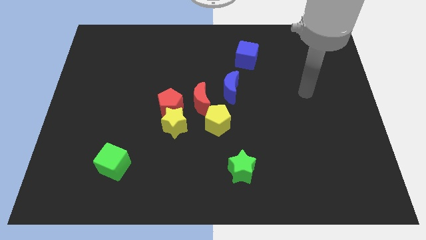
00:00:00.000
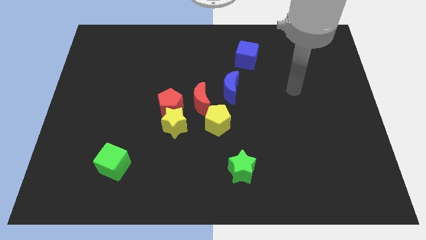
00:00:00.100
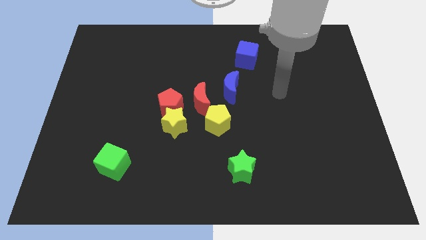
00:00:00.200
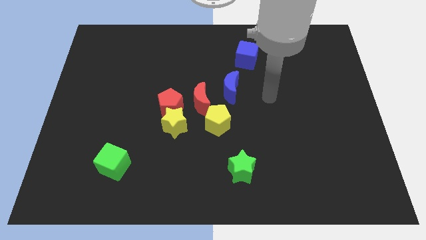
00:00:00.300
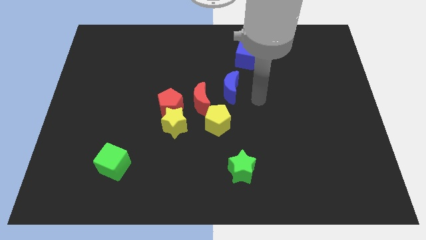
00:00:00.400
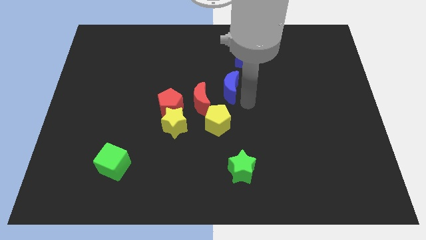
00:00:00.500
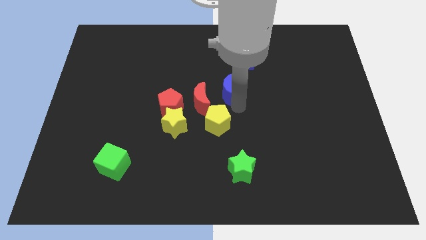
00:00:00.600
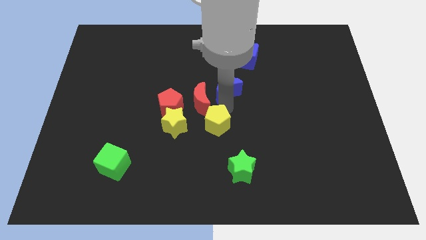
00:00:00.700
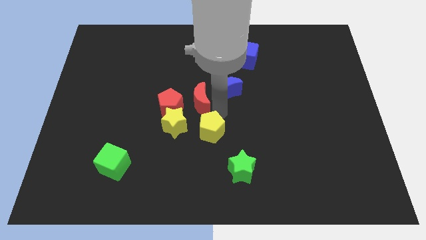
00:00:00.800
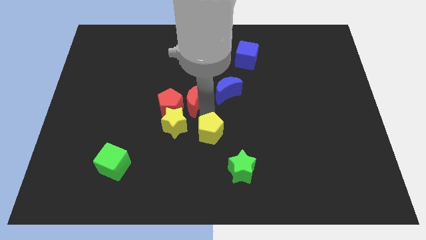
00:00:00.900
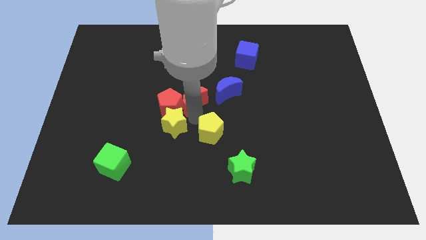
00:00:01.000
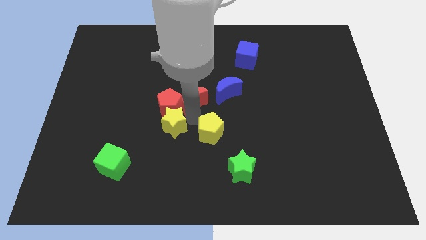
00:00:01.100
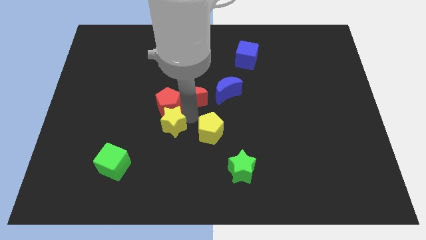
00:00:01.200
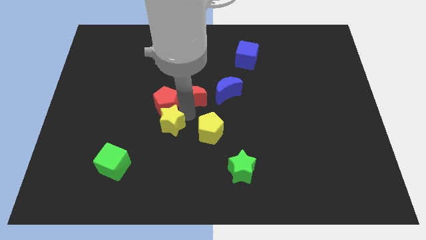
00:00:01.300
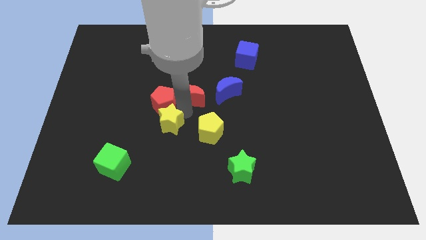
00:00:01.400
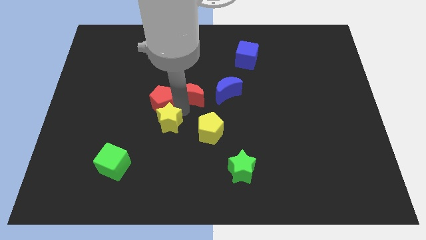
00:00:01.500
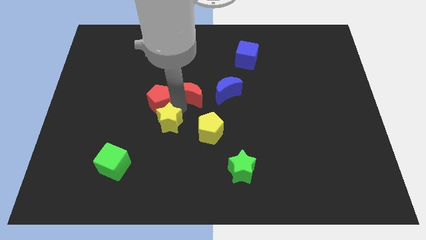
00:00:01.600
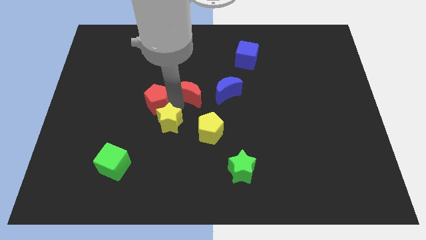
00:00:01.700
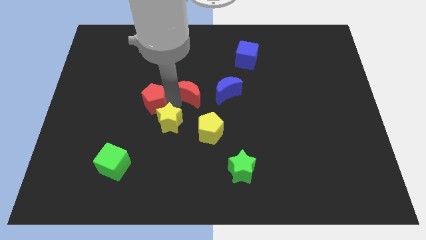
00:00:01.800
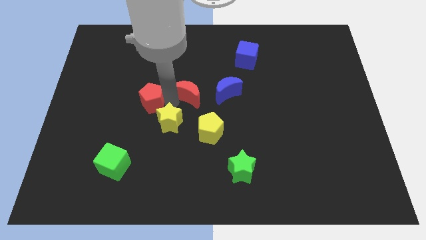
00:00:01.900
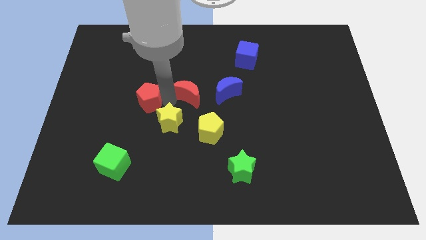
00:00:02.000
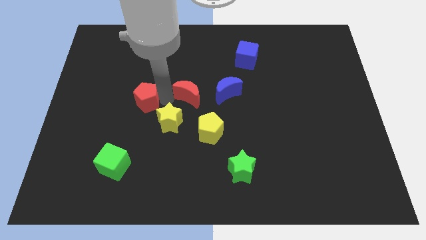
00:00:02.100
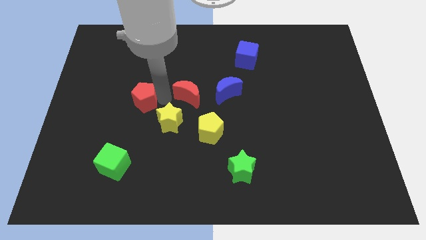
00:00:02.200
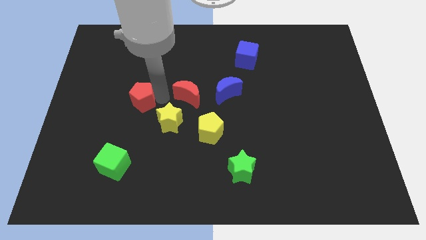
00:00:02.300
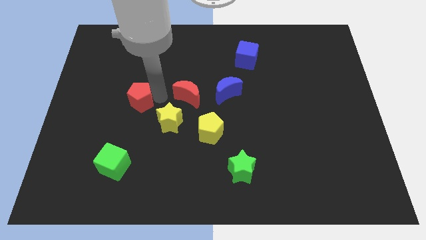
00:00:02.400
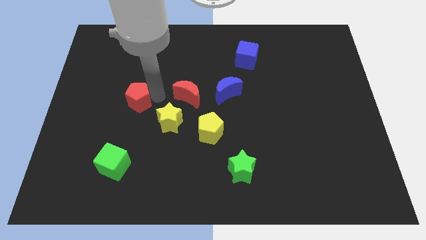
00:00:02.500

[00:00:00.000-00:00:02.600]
separate the red pentagon from the yellow star and red moon

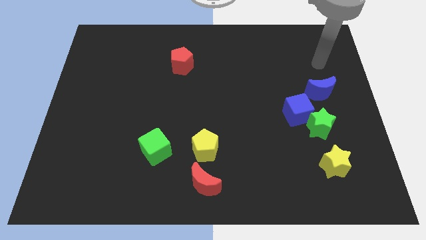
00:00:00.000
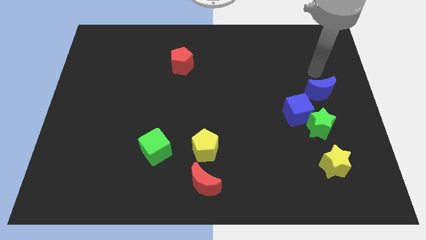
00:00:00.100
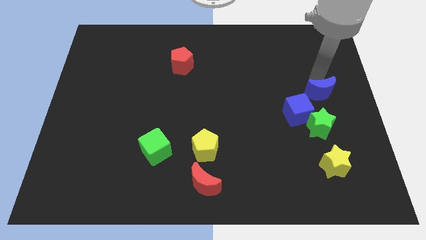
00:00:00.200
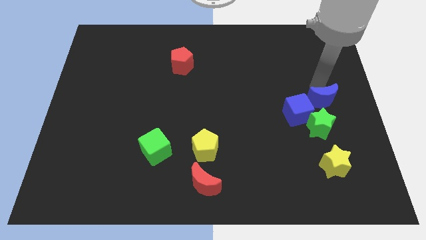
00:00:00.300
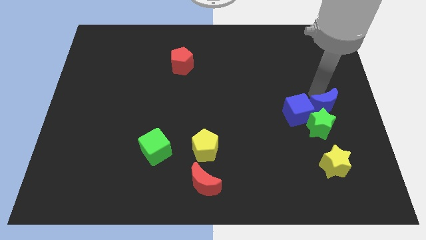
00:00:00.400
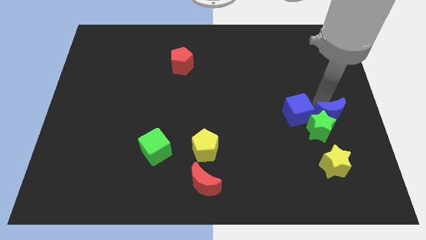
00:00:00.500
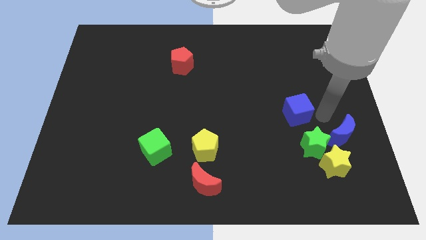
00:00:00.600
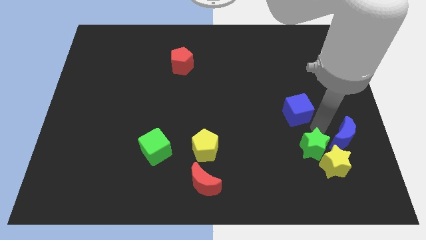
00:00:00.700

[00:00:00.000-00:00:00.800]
move the blue cube away from the green star and blue moon

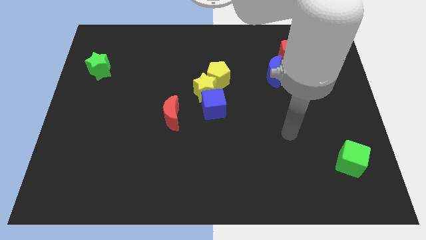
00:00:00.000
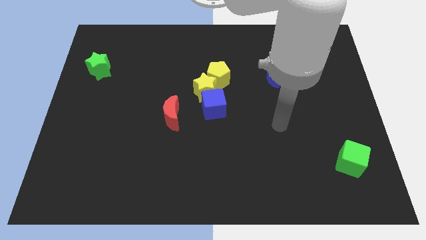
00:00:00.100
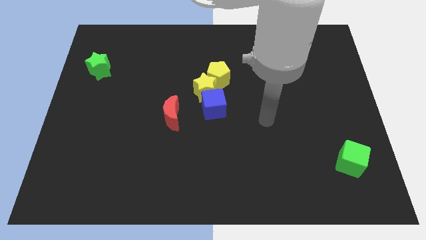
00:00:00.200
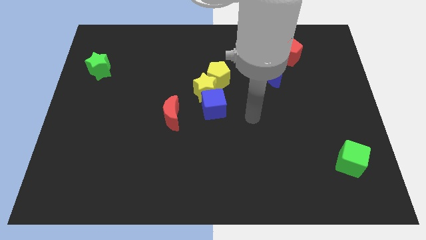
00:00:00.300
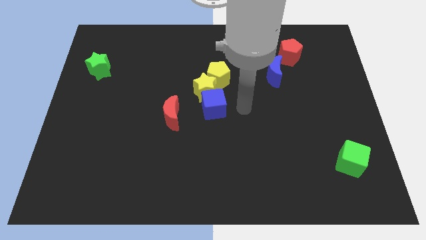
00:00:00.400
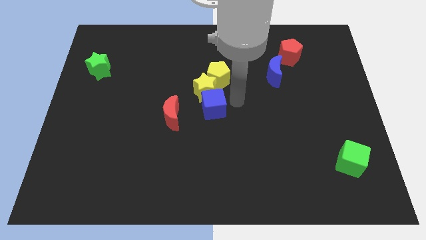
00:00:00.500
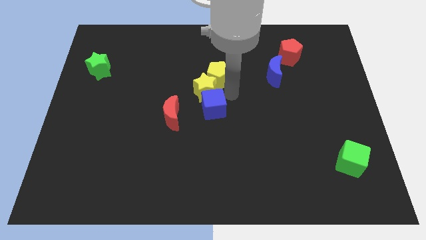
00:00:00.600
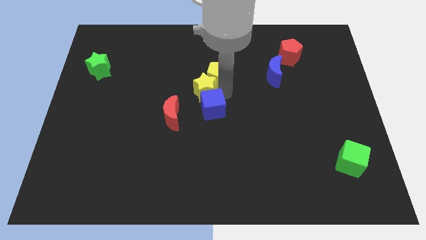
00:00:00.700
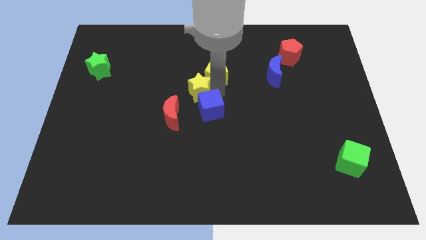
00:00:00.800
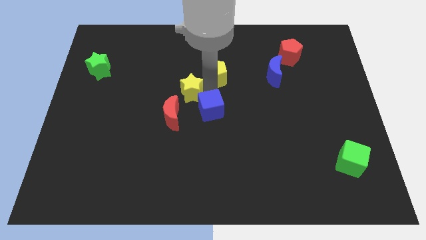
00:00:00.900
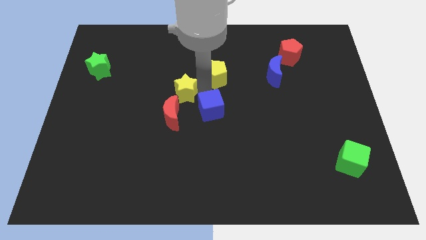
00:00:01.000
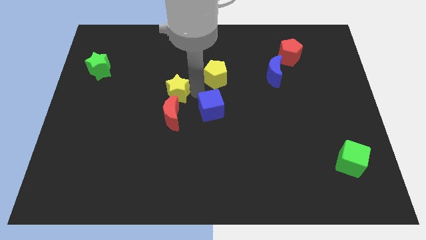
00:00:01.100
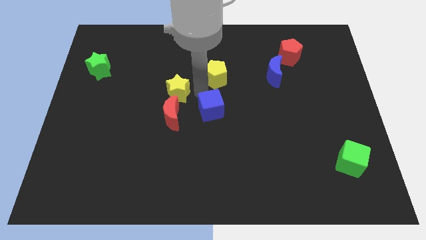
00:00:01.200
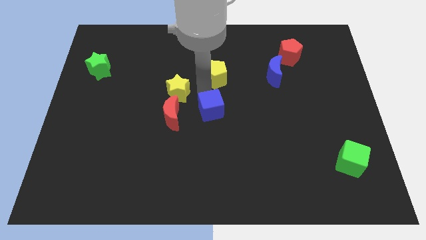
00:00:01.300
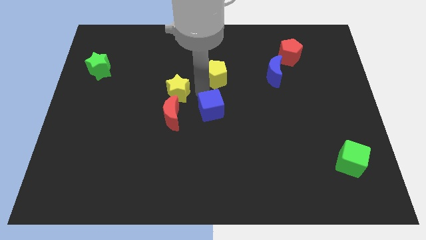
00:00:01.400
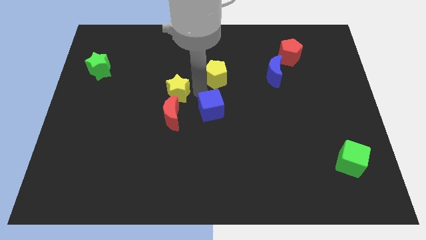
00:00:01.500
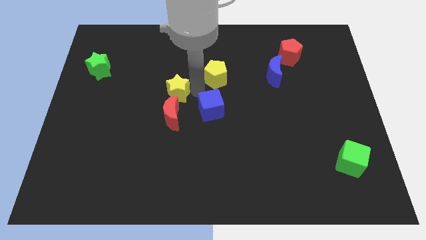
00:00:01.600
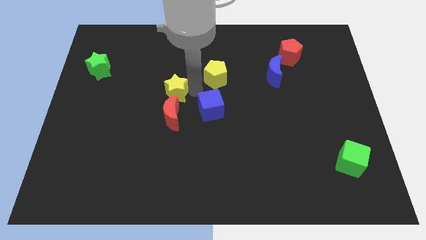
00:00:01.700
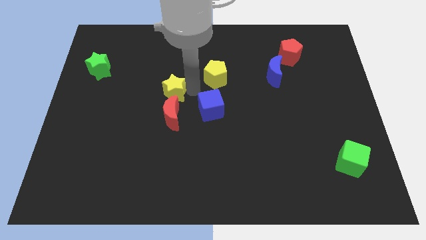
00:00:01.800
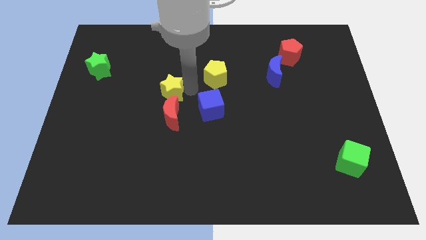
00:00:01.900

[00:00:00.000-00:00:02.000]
separate the yellow star from the yellow pentagon and blue cube

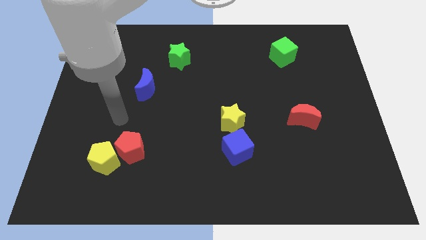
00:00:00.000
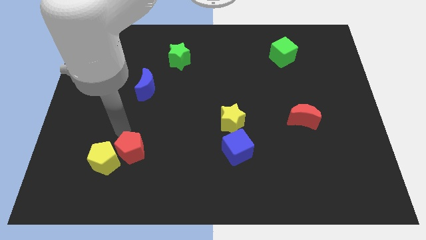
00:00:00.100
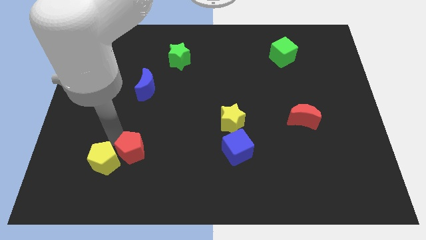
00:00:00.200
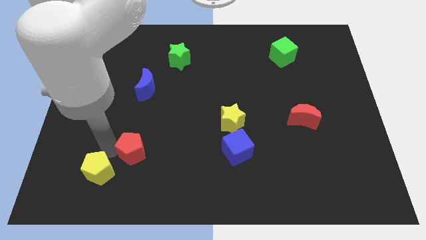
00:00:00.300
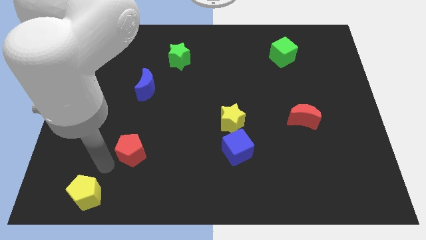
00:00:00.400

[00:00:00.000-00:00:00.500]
move the red pentagon away from the yellow pentagon

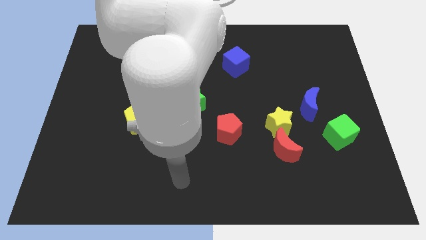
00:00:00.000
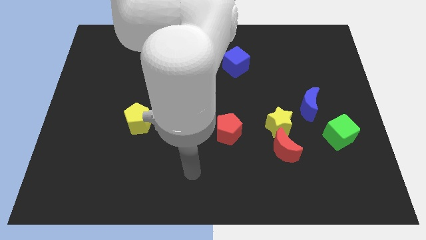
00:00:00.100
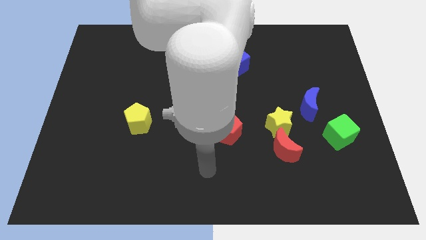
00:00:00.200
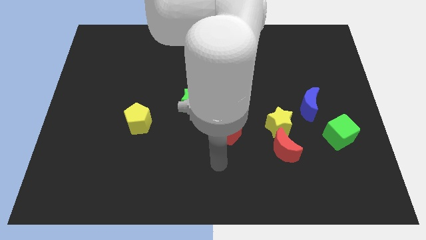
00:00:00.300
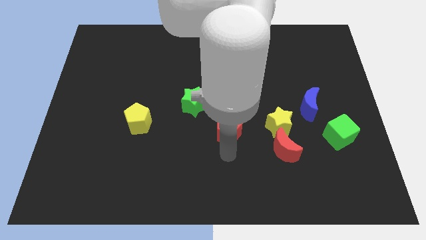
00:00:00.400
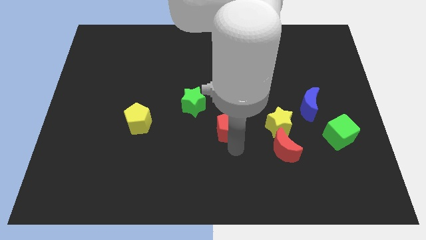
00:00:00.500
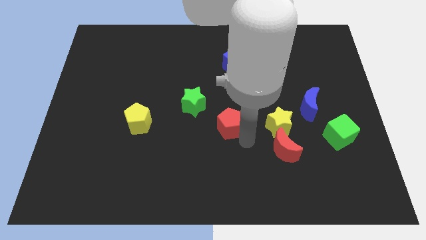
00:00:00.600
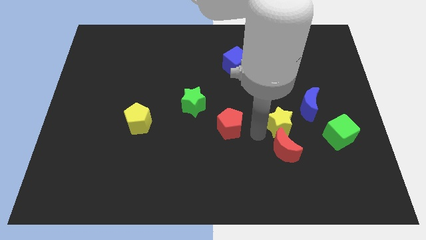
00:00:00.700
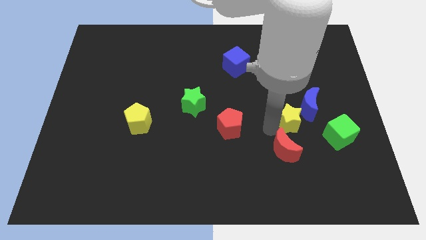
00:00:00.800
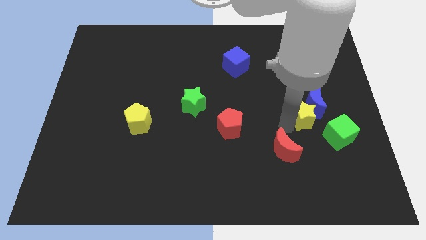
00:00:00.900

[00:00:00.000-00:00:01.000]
separate the red moon from the yellow star

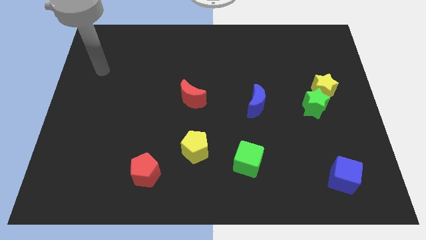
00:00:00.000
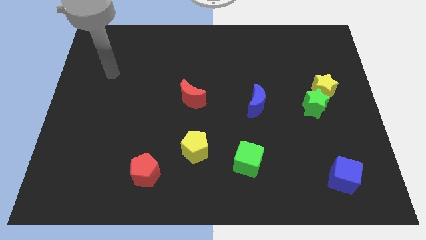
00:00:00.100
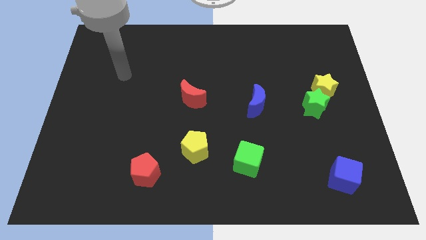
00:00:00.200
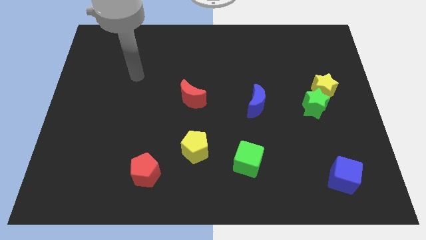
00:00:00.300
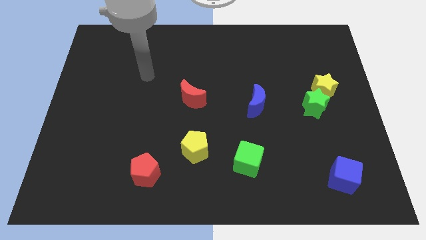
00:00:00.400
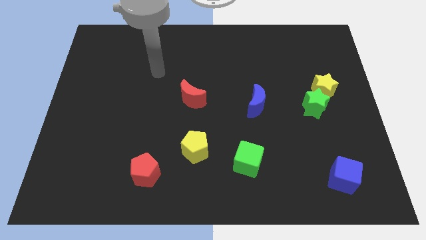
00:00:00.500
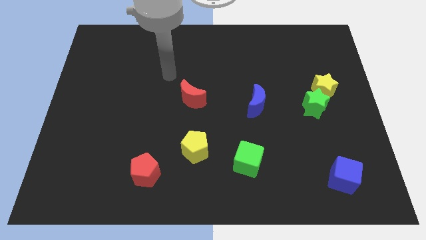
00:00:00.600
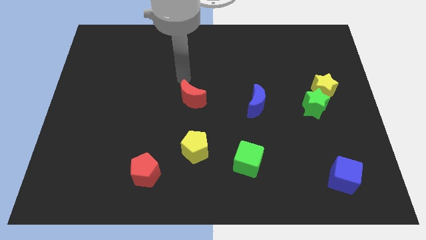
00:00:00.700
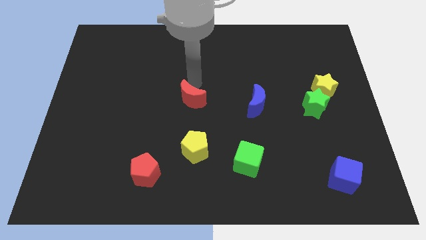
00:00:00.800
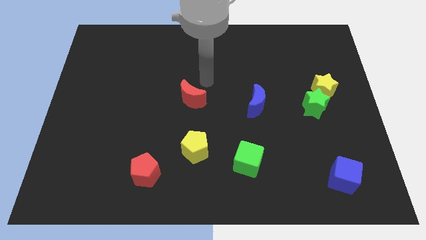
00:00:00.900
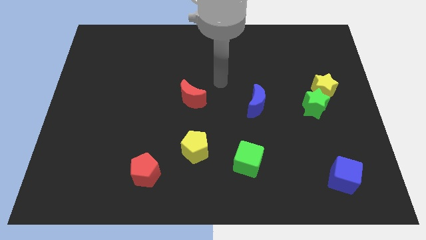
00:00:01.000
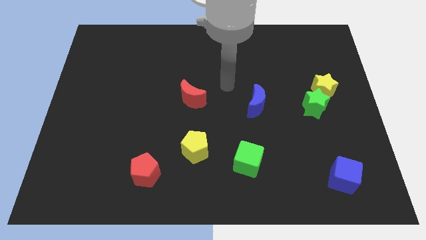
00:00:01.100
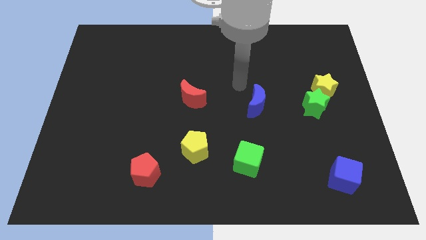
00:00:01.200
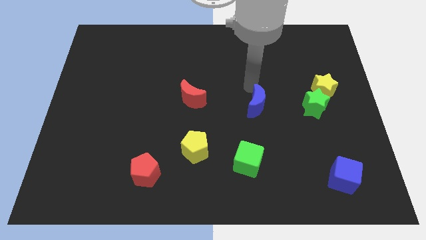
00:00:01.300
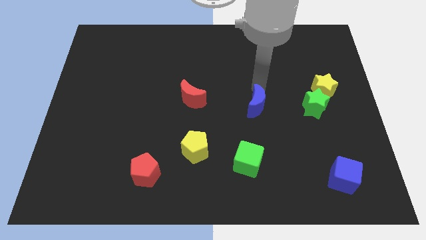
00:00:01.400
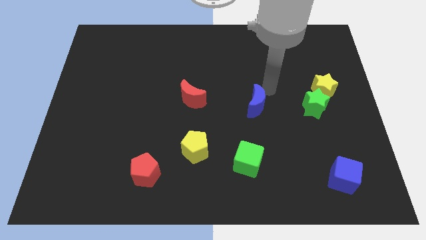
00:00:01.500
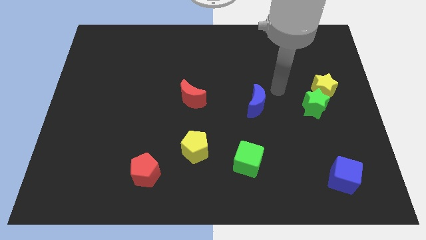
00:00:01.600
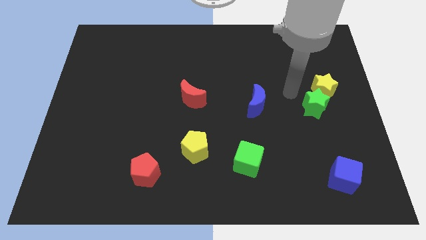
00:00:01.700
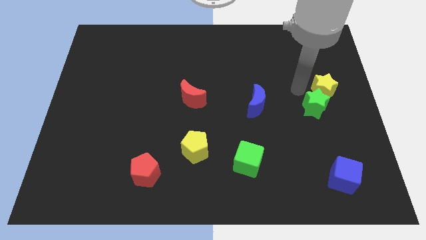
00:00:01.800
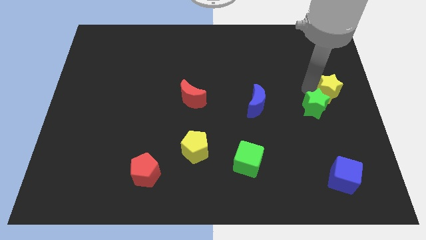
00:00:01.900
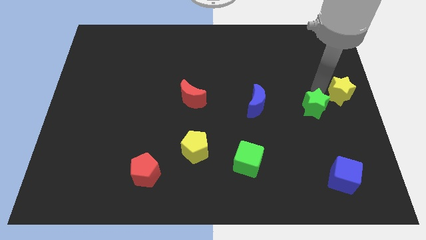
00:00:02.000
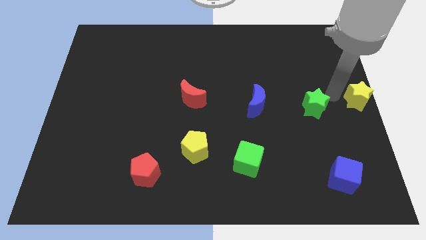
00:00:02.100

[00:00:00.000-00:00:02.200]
pull the green star apart from the yellow star

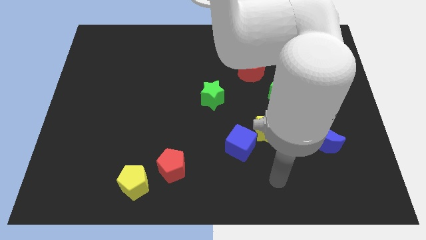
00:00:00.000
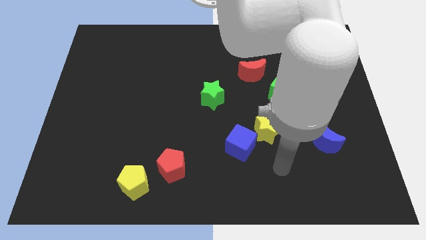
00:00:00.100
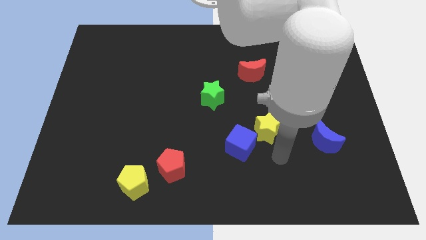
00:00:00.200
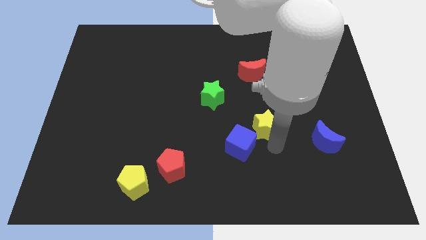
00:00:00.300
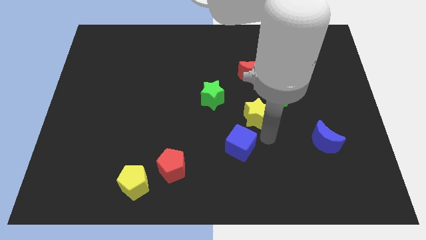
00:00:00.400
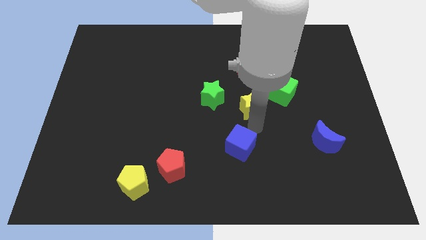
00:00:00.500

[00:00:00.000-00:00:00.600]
move the blue cube away from the yellow star
